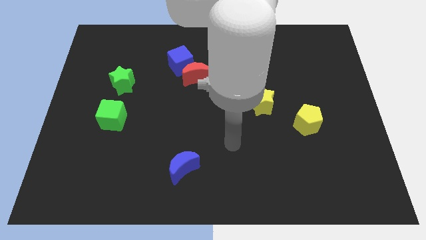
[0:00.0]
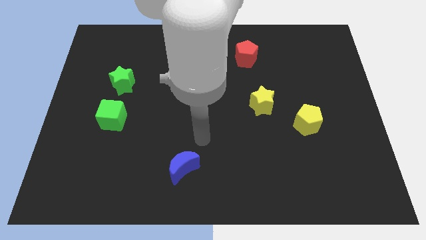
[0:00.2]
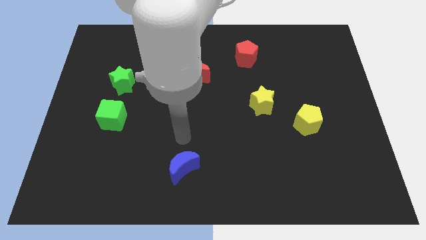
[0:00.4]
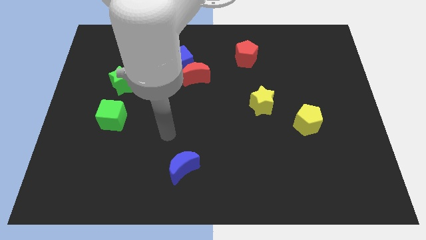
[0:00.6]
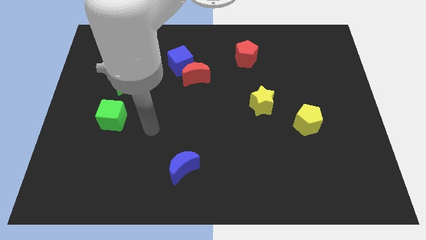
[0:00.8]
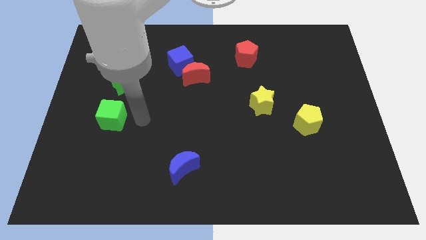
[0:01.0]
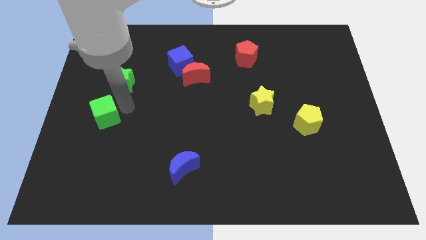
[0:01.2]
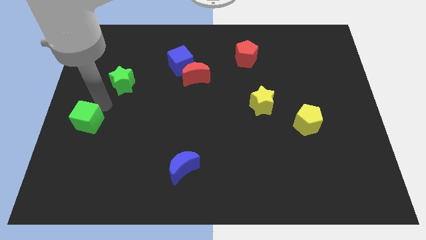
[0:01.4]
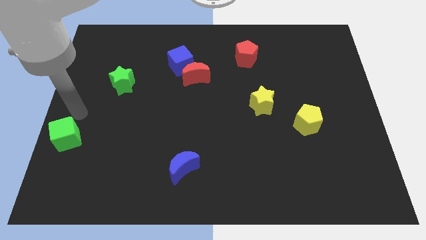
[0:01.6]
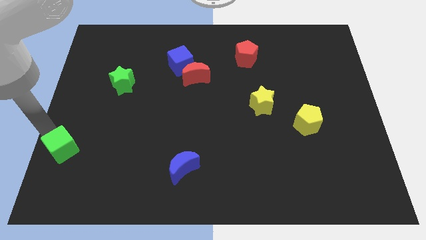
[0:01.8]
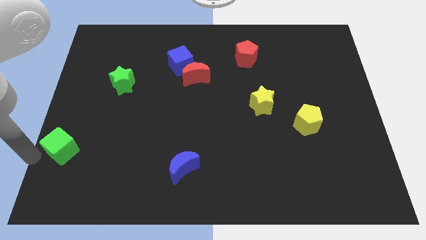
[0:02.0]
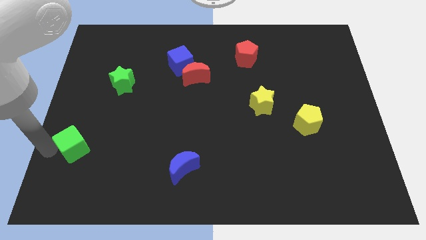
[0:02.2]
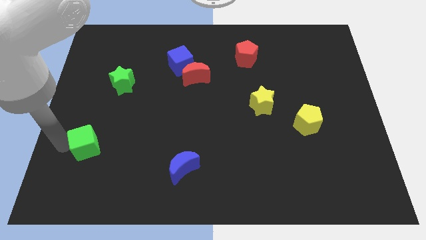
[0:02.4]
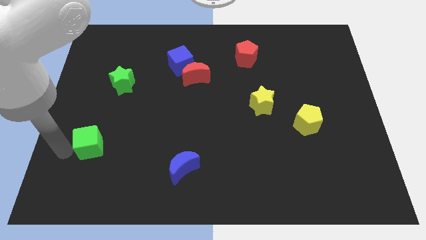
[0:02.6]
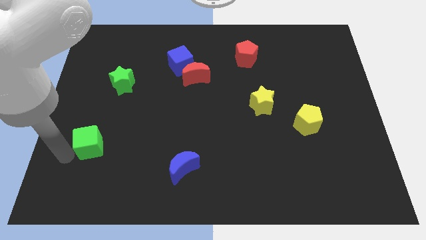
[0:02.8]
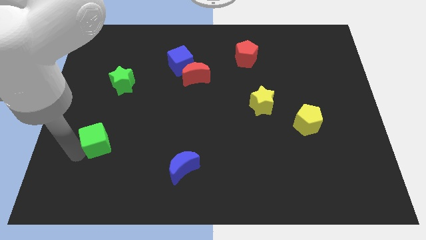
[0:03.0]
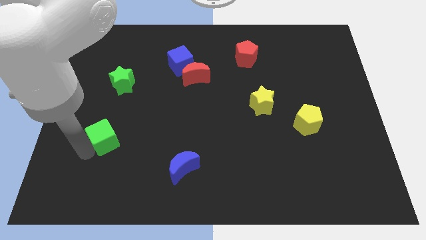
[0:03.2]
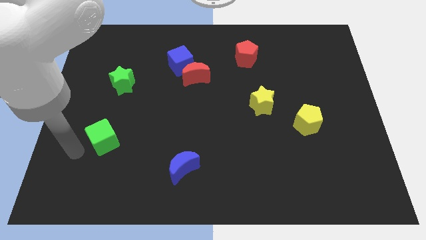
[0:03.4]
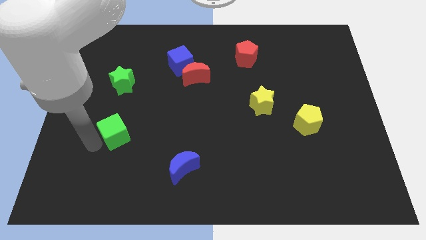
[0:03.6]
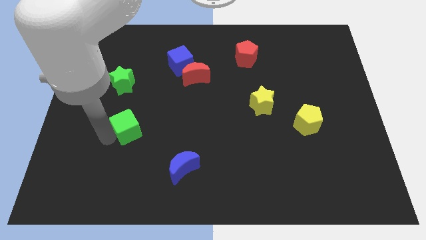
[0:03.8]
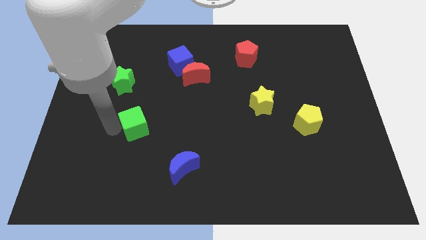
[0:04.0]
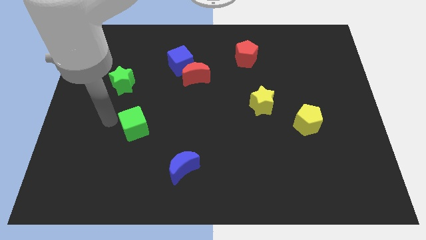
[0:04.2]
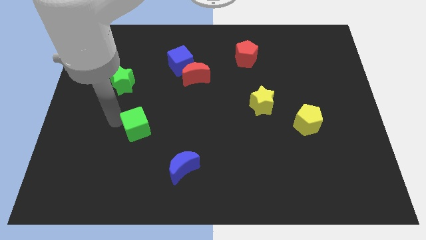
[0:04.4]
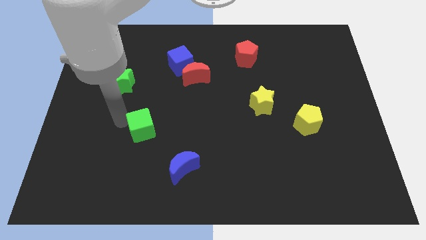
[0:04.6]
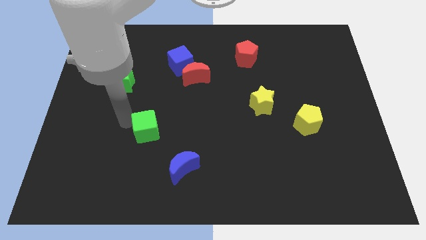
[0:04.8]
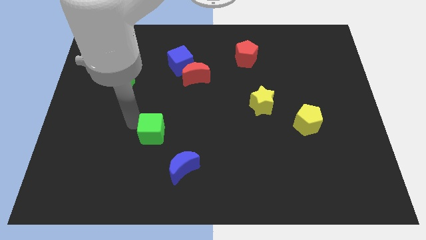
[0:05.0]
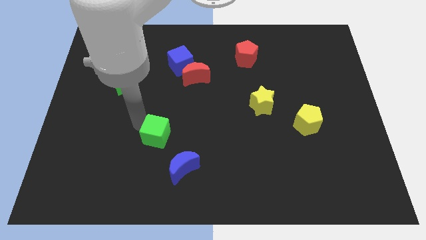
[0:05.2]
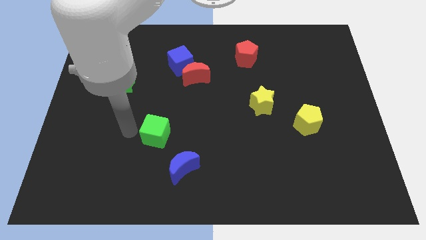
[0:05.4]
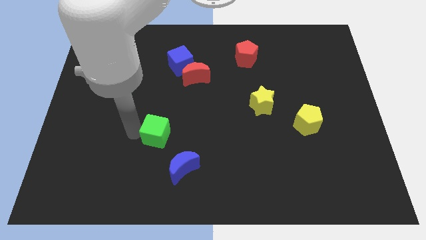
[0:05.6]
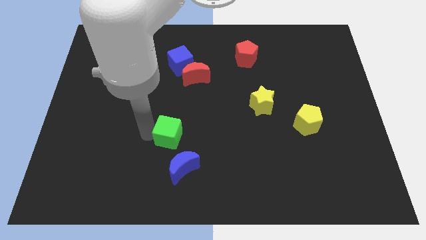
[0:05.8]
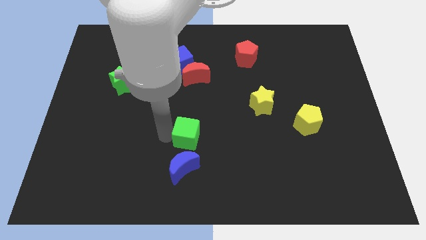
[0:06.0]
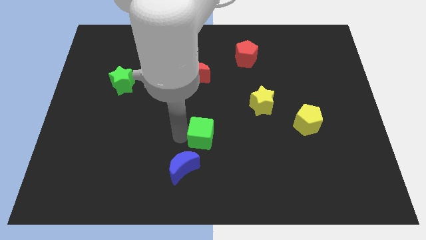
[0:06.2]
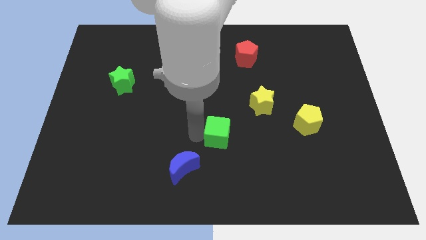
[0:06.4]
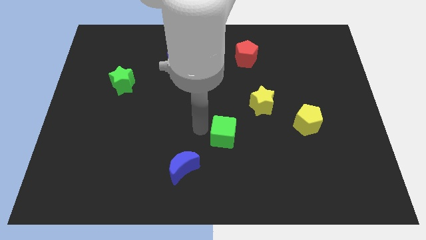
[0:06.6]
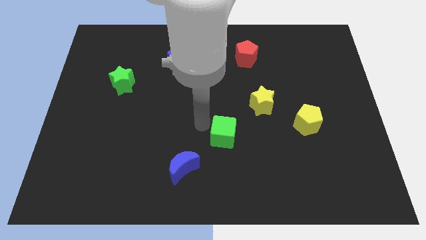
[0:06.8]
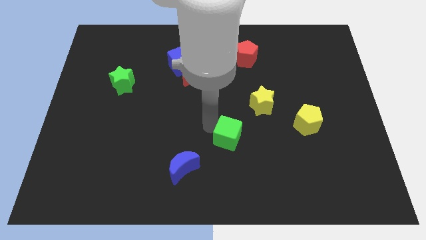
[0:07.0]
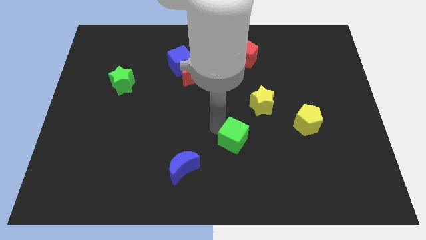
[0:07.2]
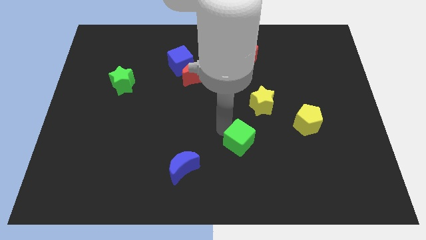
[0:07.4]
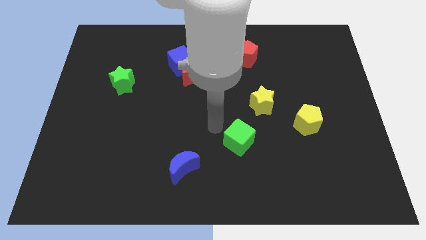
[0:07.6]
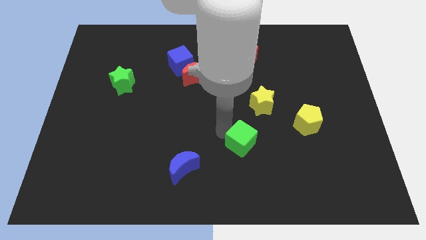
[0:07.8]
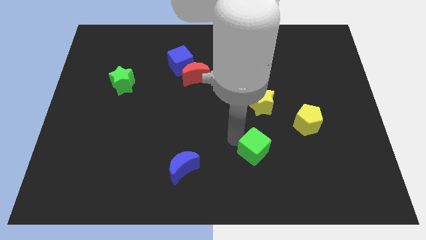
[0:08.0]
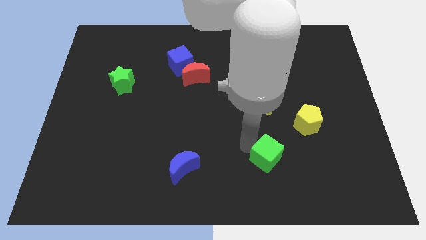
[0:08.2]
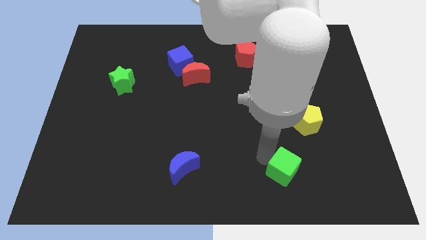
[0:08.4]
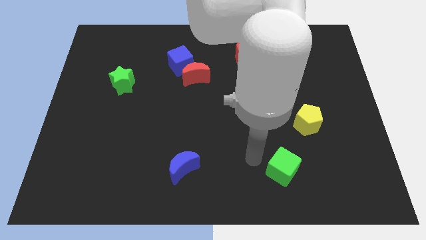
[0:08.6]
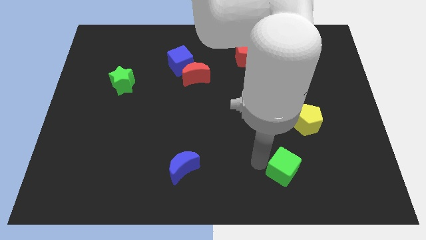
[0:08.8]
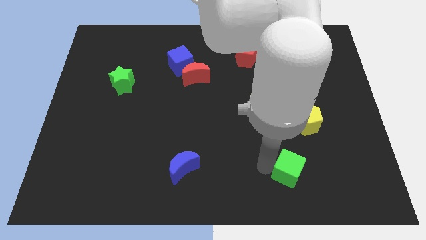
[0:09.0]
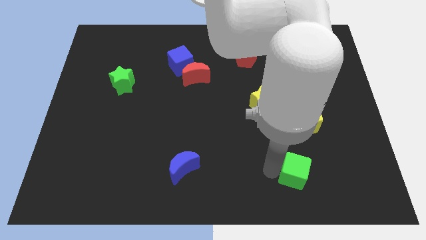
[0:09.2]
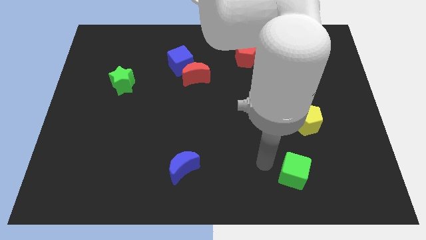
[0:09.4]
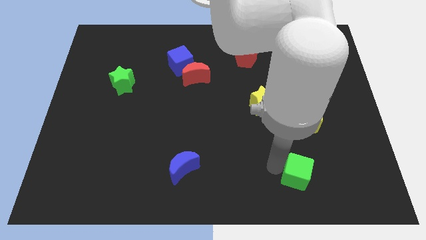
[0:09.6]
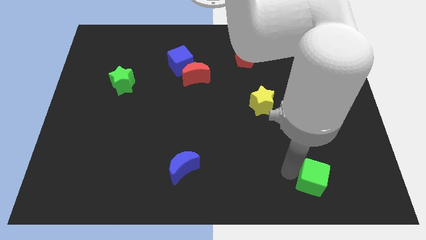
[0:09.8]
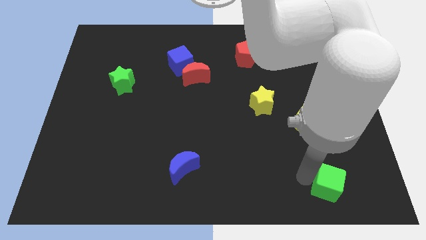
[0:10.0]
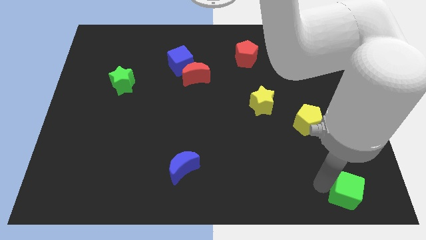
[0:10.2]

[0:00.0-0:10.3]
slide the green cube to the bottom right of the board
